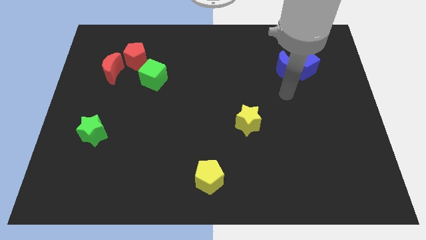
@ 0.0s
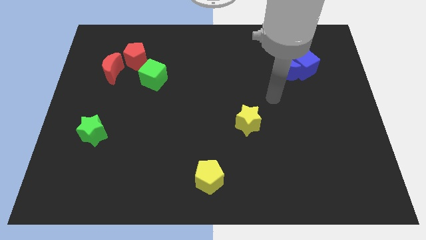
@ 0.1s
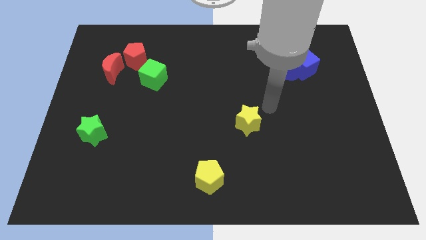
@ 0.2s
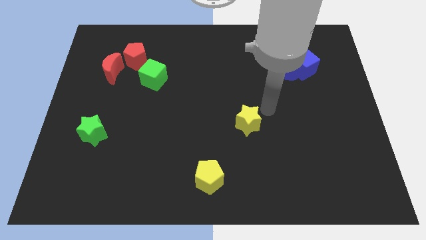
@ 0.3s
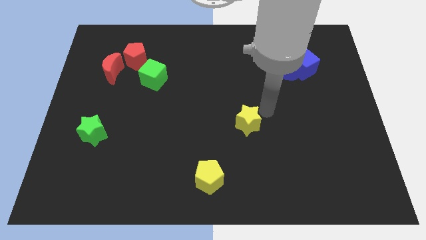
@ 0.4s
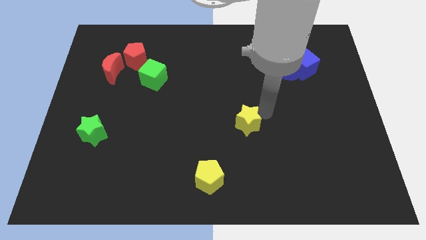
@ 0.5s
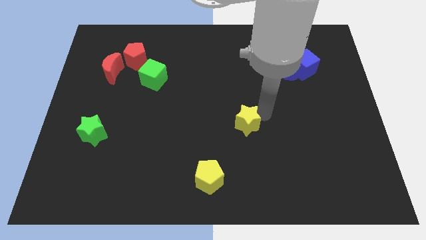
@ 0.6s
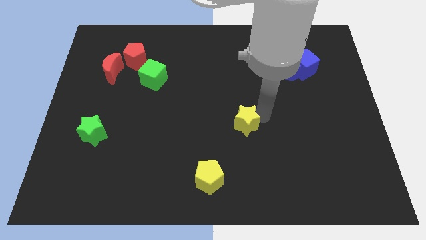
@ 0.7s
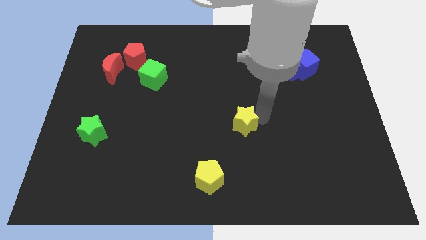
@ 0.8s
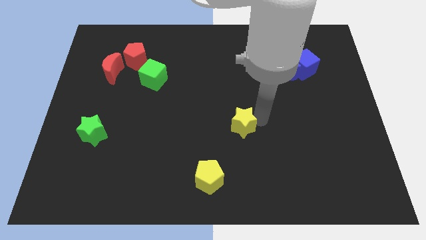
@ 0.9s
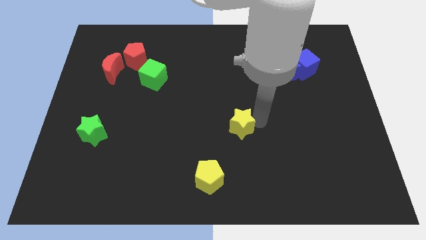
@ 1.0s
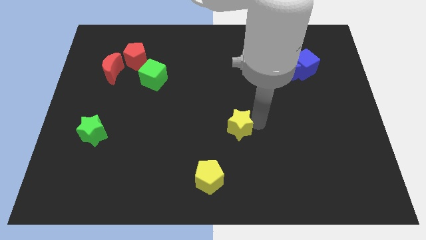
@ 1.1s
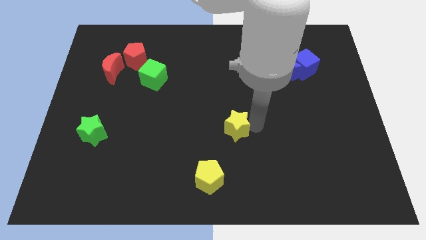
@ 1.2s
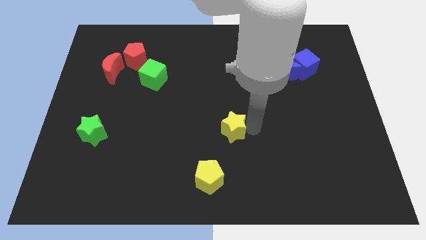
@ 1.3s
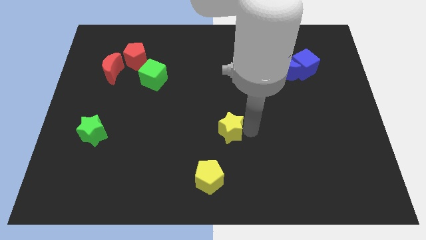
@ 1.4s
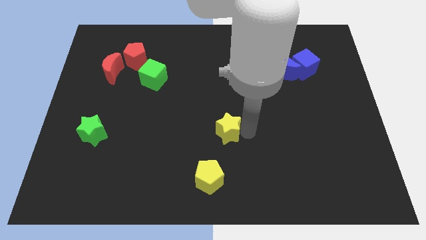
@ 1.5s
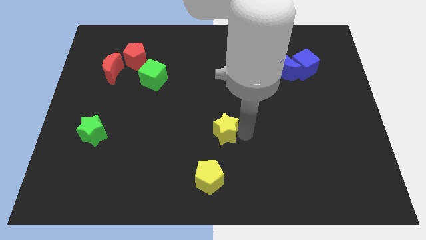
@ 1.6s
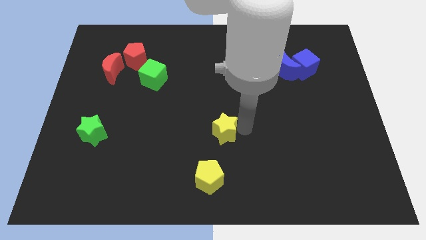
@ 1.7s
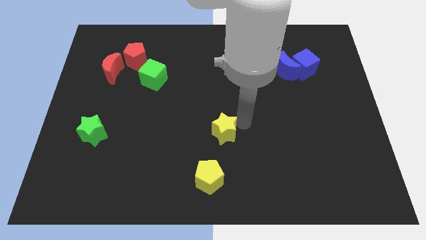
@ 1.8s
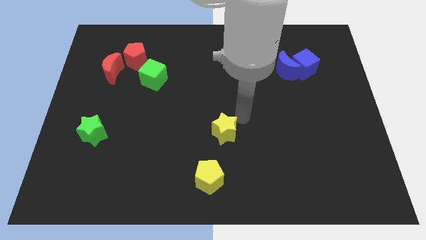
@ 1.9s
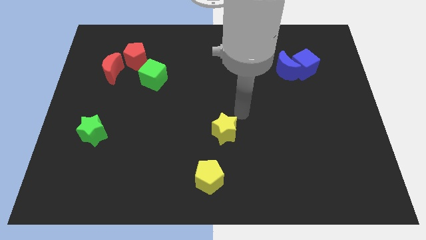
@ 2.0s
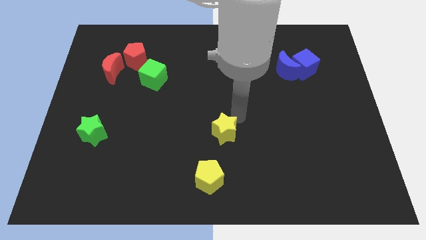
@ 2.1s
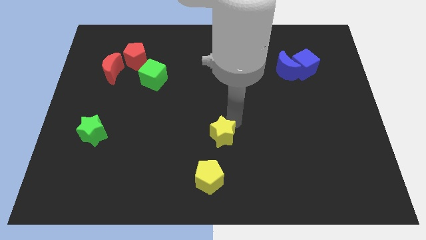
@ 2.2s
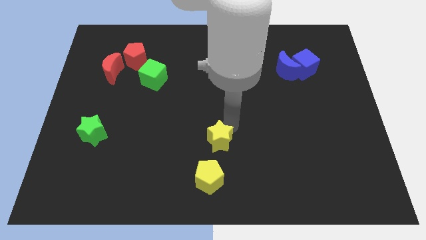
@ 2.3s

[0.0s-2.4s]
slightly slide the yellow star down and to the left diagonally

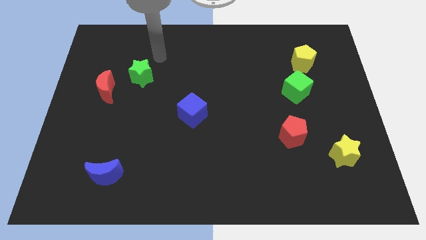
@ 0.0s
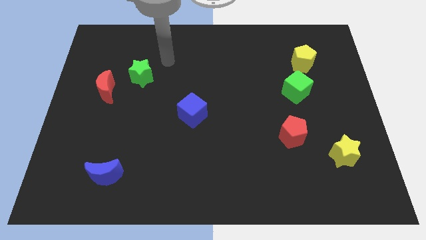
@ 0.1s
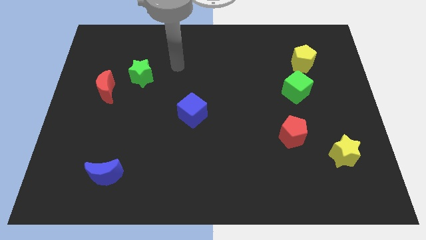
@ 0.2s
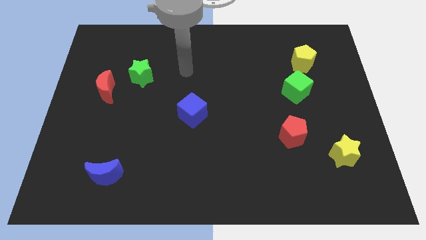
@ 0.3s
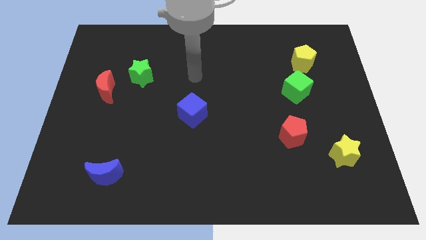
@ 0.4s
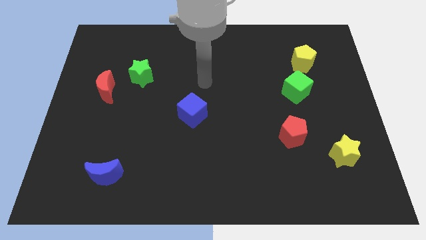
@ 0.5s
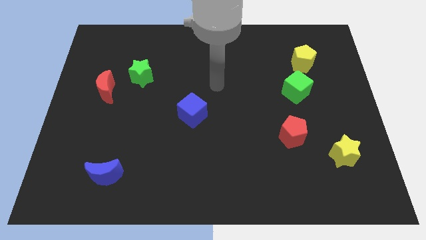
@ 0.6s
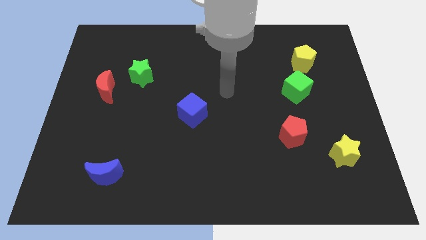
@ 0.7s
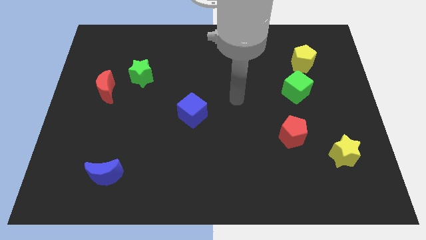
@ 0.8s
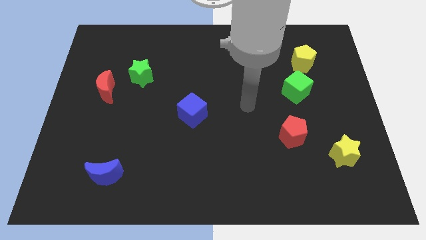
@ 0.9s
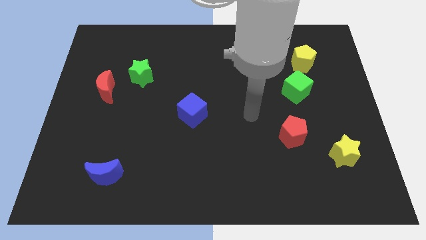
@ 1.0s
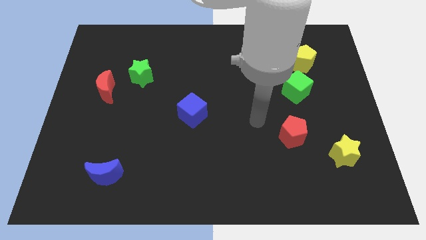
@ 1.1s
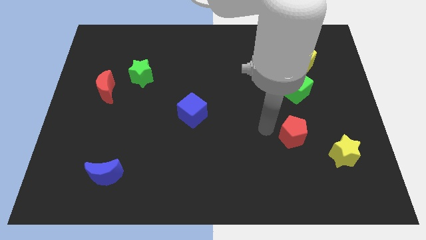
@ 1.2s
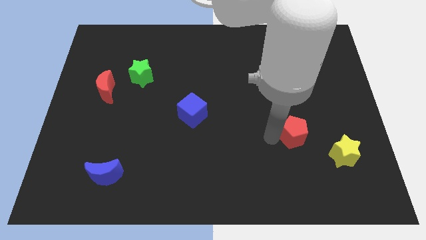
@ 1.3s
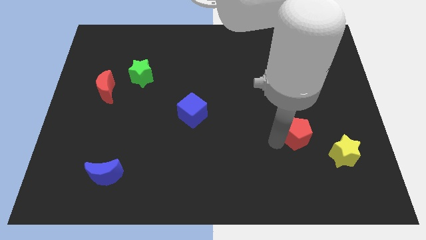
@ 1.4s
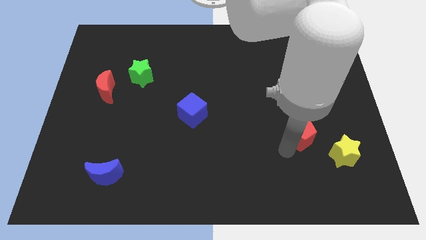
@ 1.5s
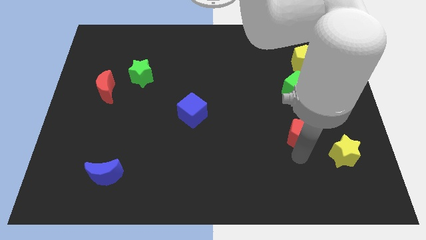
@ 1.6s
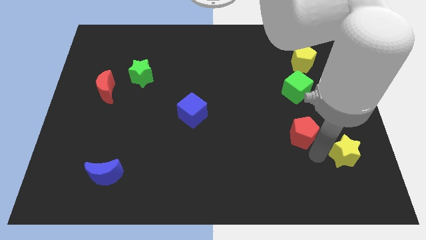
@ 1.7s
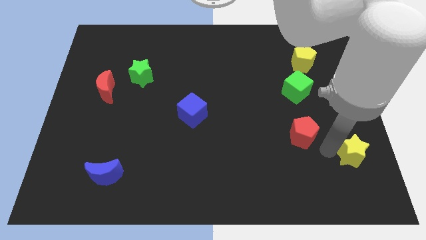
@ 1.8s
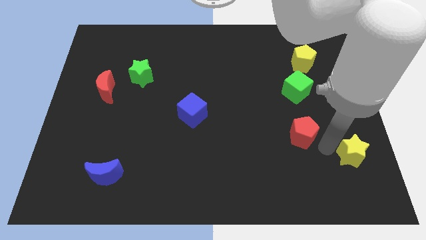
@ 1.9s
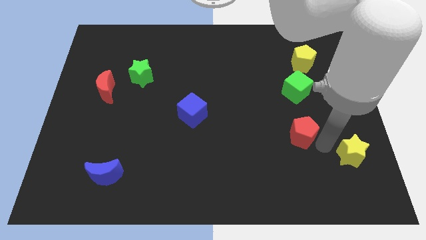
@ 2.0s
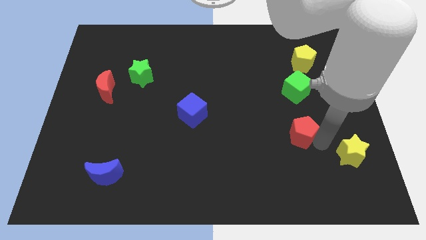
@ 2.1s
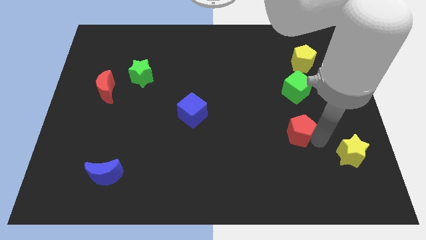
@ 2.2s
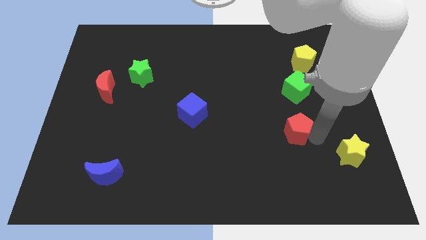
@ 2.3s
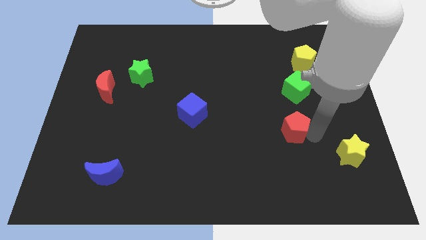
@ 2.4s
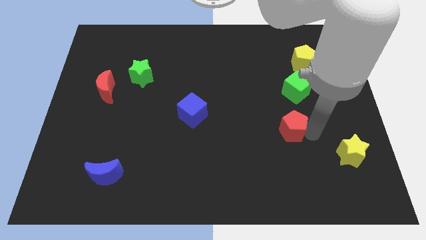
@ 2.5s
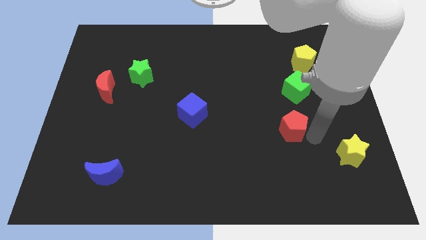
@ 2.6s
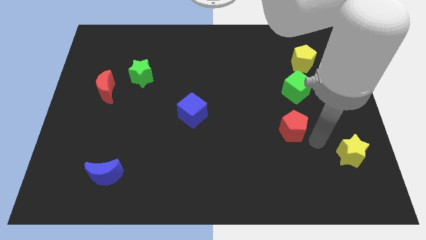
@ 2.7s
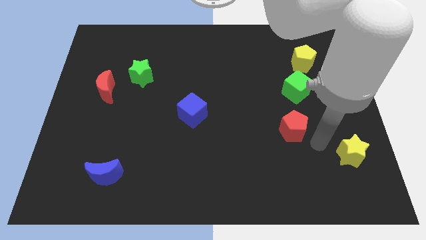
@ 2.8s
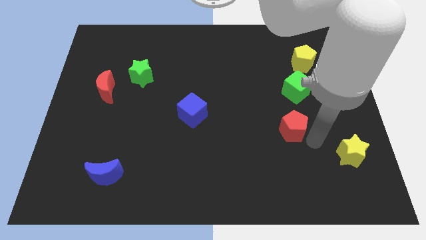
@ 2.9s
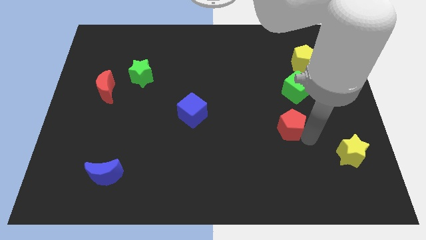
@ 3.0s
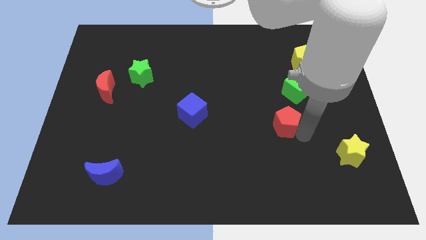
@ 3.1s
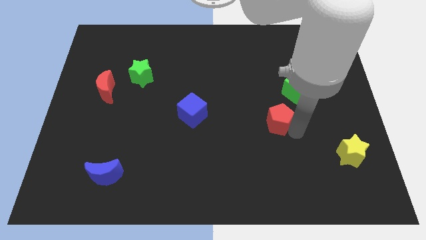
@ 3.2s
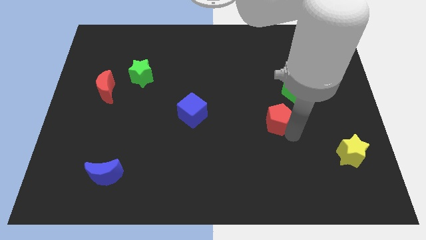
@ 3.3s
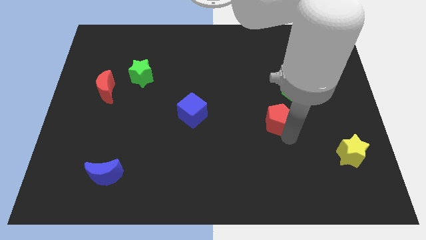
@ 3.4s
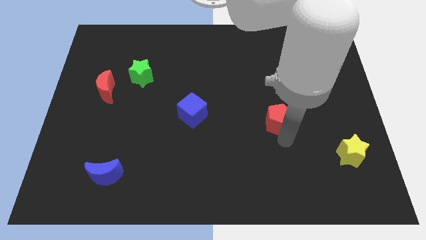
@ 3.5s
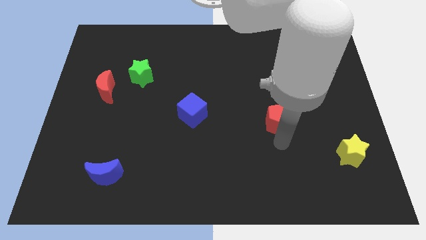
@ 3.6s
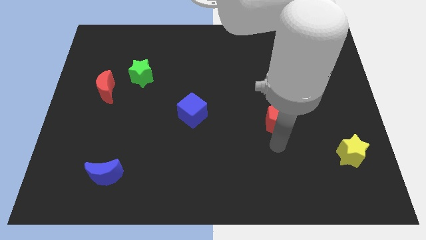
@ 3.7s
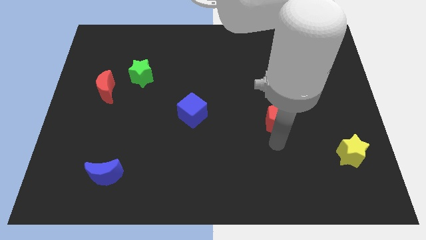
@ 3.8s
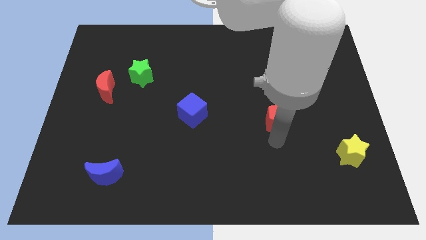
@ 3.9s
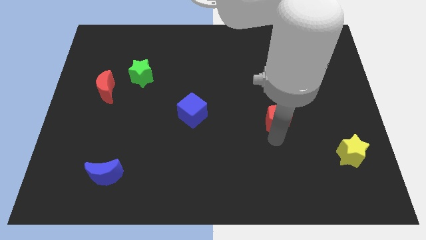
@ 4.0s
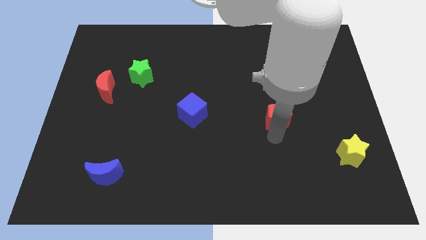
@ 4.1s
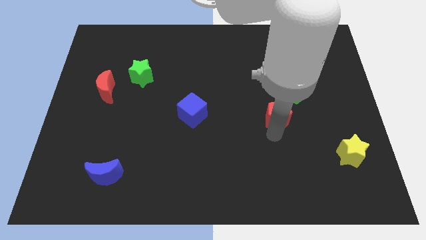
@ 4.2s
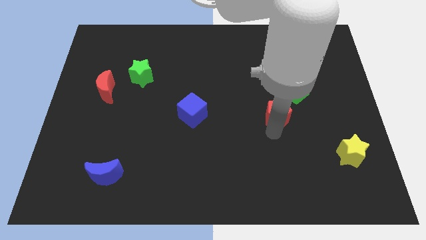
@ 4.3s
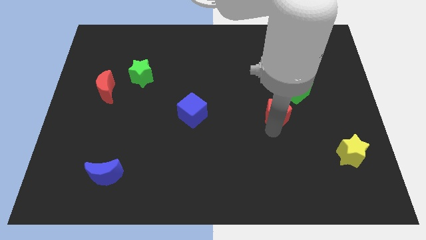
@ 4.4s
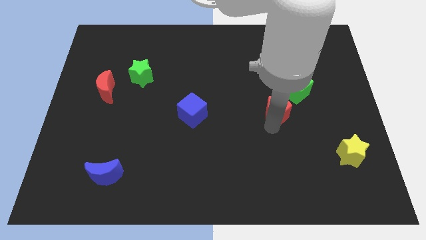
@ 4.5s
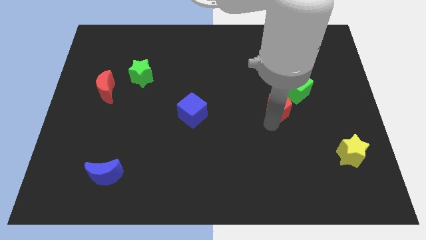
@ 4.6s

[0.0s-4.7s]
slightly push the red pentagon upwards

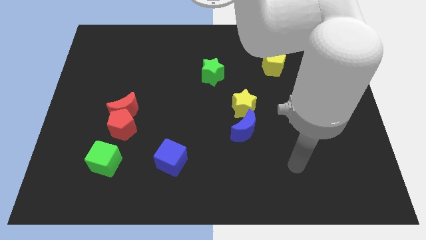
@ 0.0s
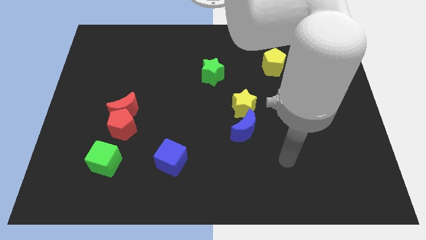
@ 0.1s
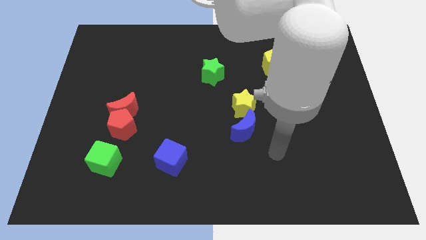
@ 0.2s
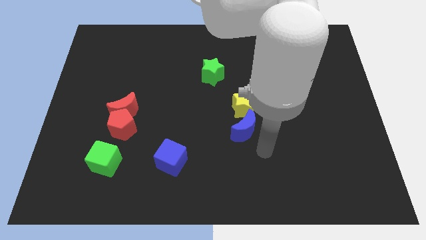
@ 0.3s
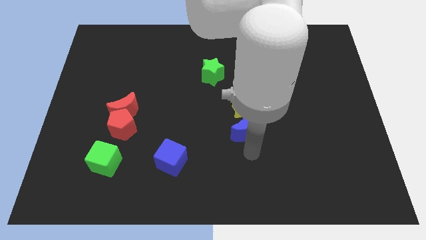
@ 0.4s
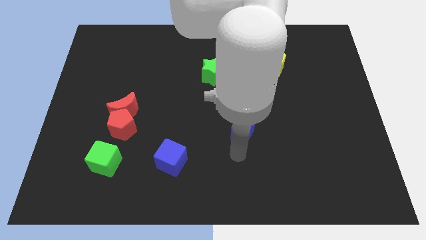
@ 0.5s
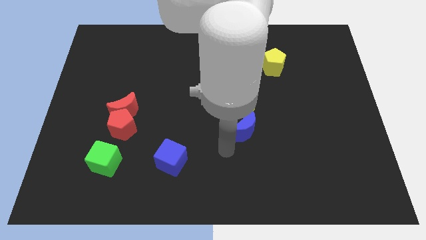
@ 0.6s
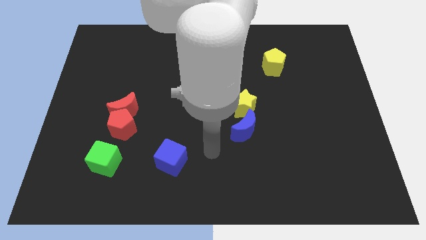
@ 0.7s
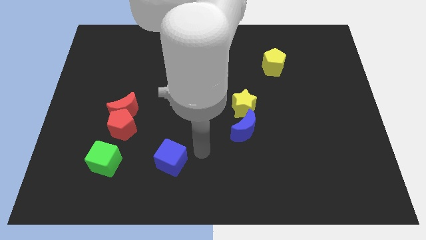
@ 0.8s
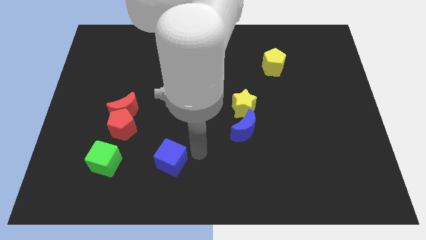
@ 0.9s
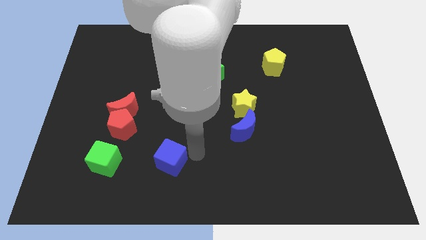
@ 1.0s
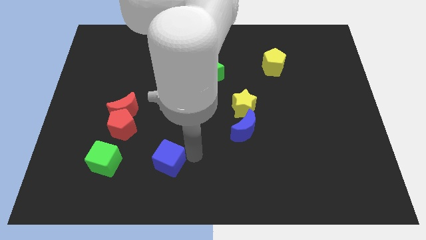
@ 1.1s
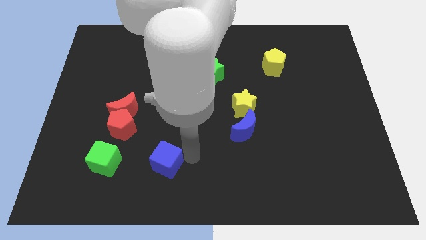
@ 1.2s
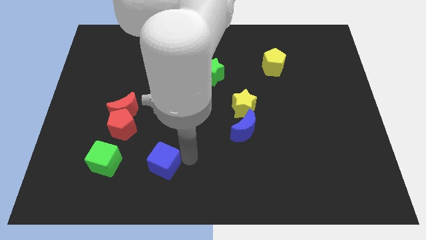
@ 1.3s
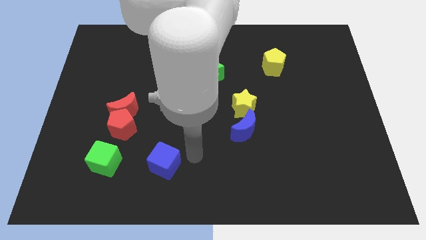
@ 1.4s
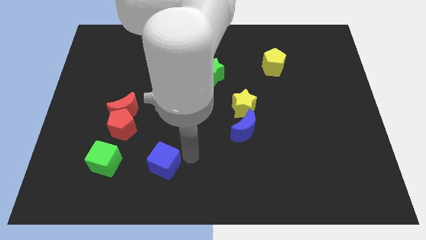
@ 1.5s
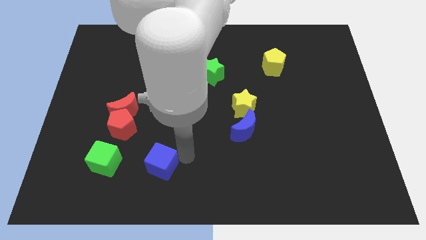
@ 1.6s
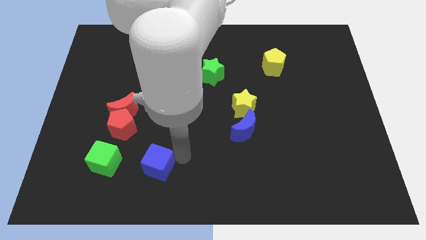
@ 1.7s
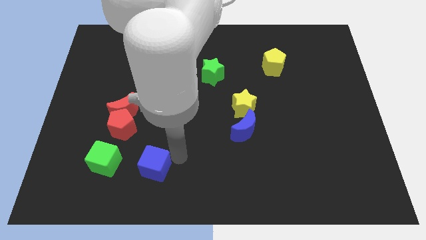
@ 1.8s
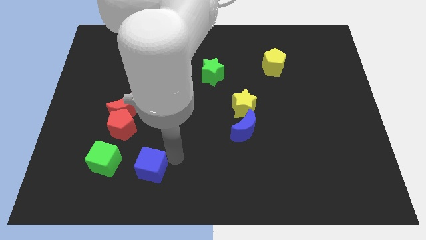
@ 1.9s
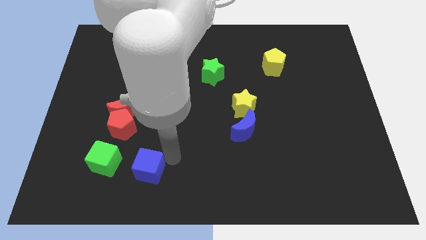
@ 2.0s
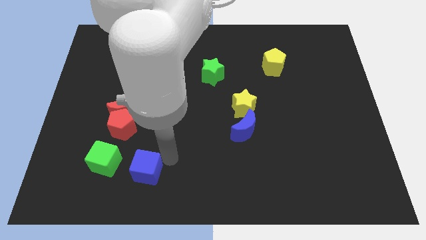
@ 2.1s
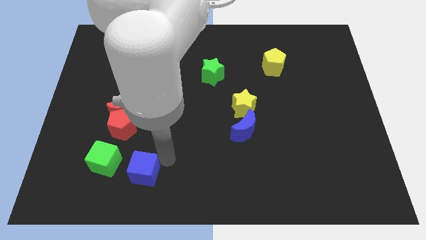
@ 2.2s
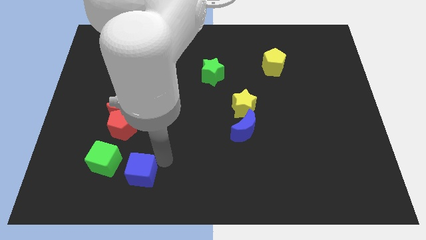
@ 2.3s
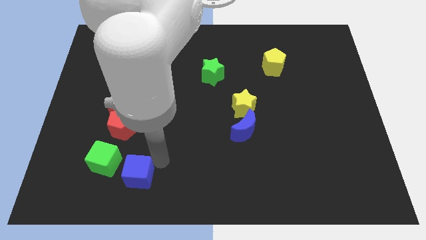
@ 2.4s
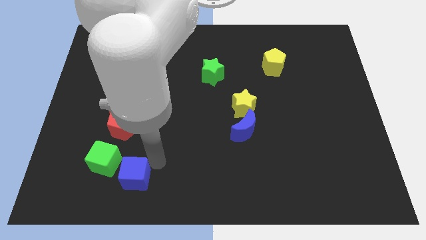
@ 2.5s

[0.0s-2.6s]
slightly move the blue cube left
